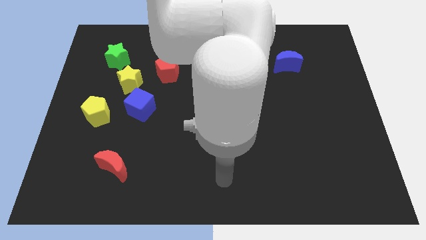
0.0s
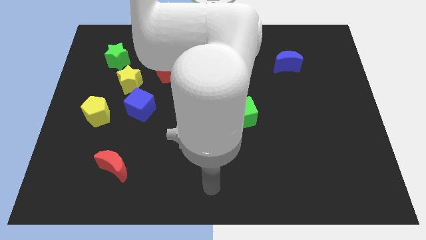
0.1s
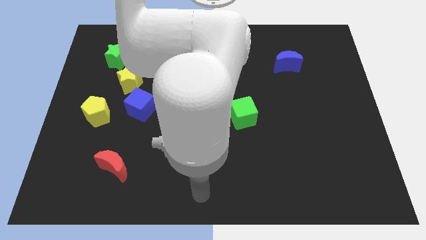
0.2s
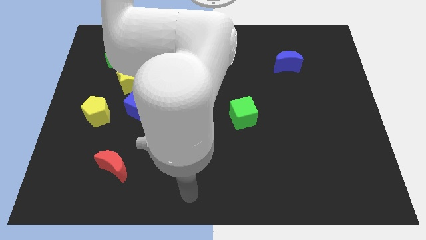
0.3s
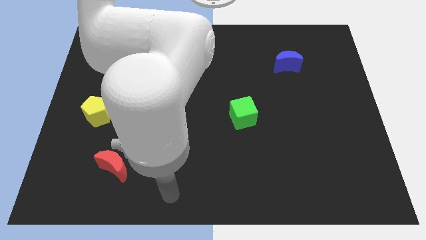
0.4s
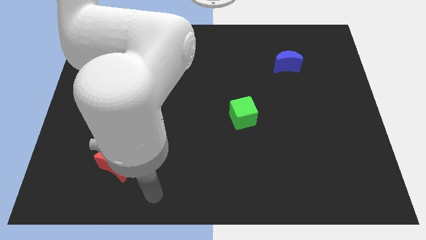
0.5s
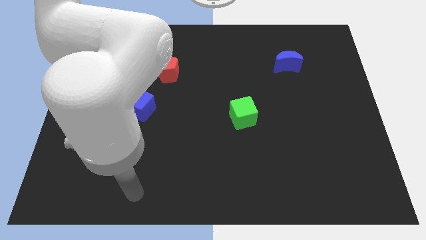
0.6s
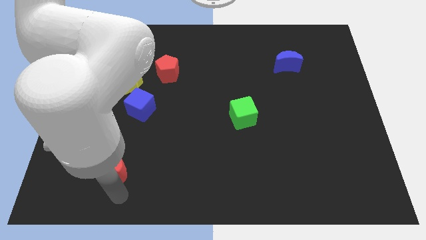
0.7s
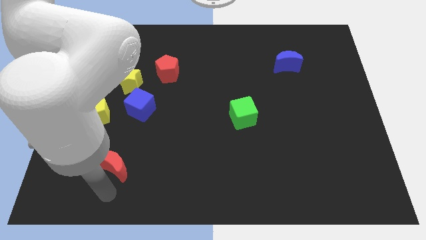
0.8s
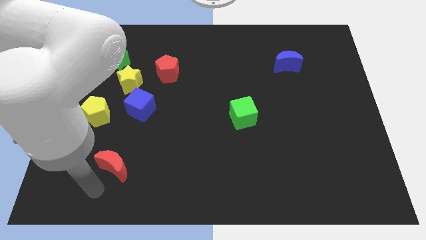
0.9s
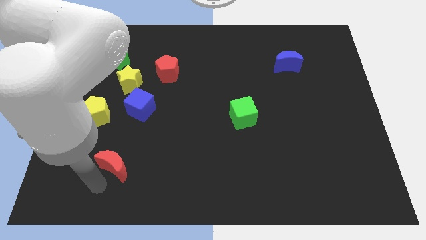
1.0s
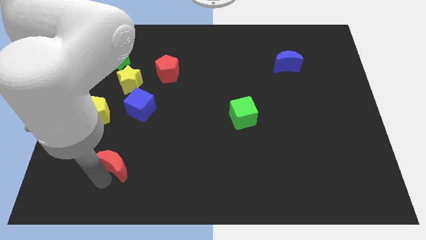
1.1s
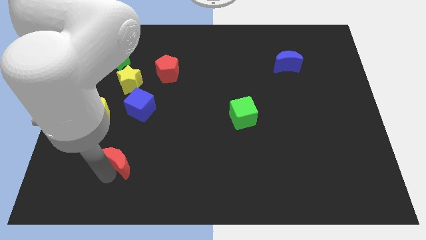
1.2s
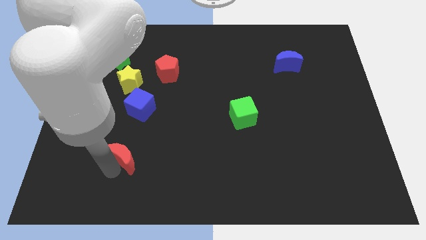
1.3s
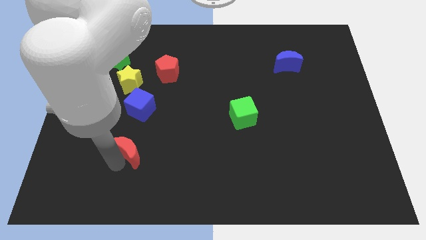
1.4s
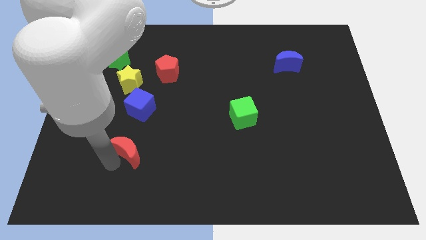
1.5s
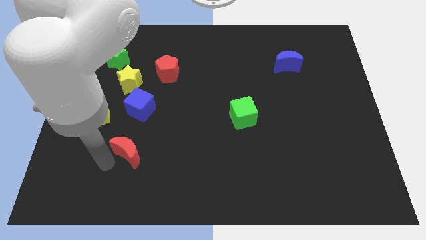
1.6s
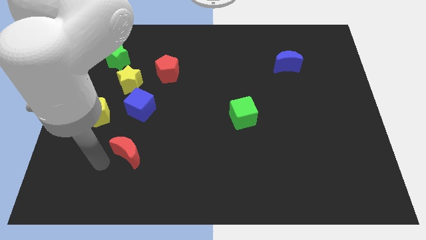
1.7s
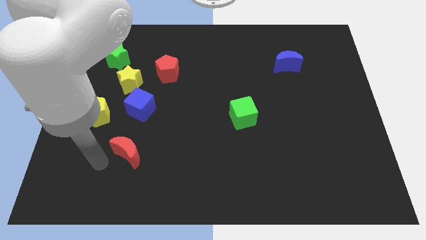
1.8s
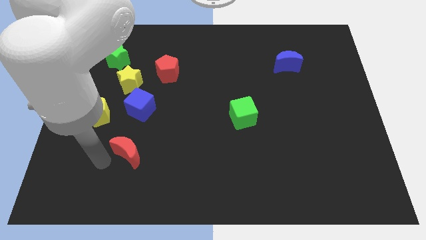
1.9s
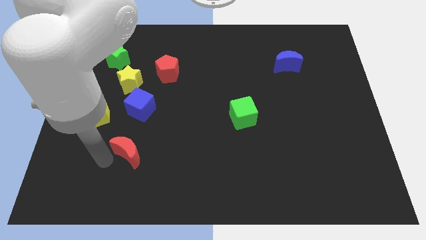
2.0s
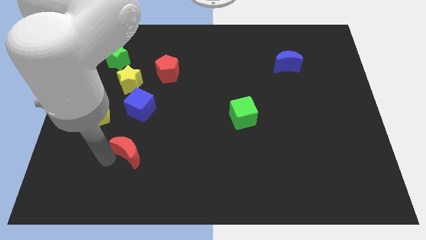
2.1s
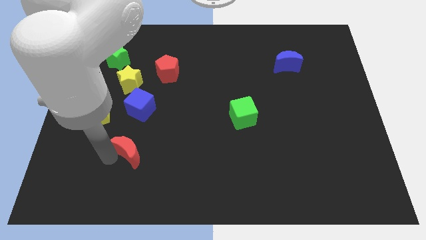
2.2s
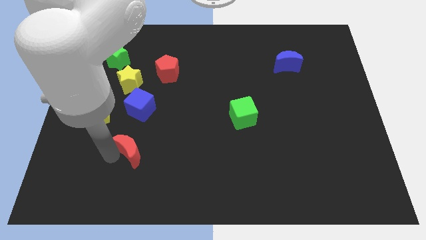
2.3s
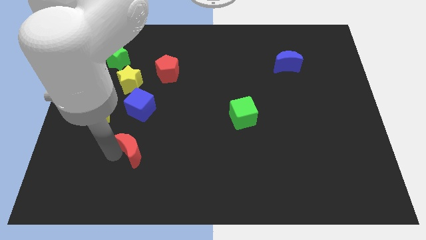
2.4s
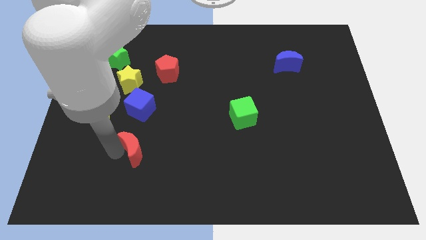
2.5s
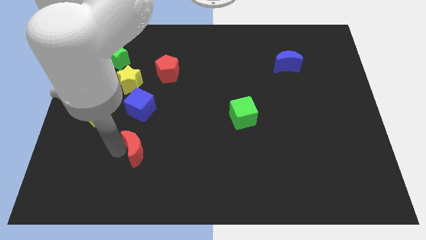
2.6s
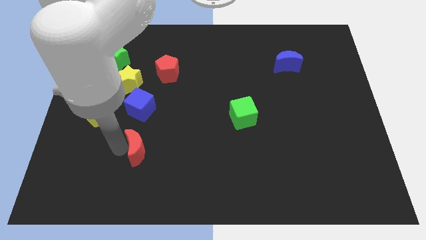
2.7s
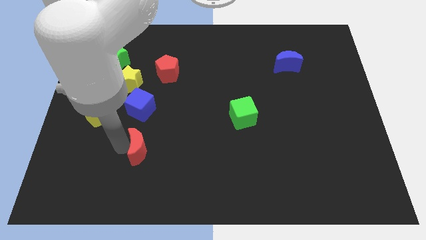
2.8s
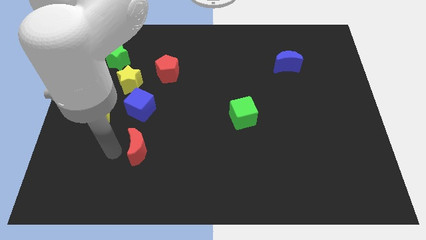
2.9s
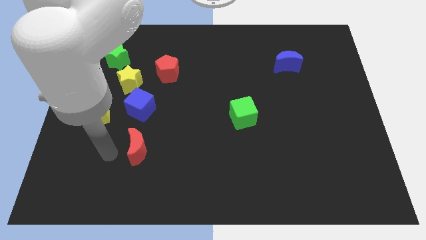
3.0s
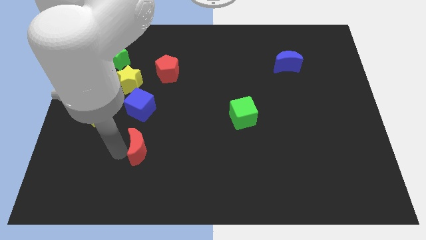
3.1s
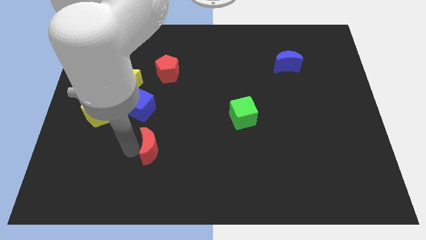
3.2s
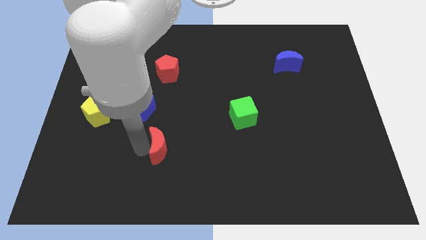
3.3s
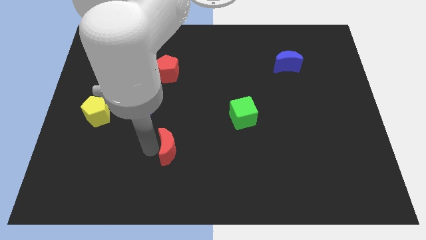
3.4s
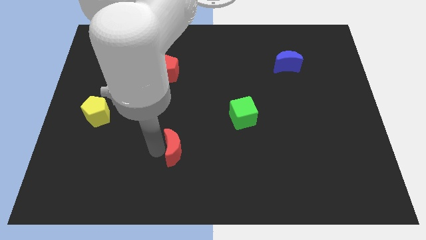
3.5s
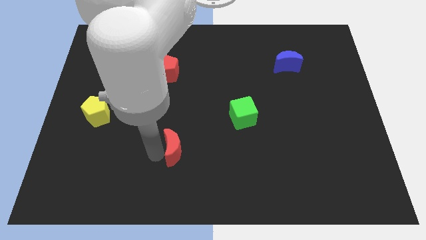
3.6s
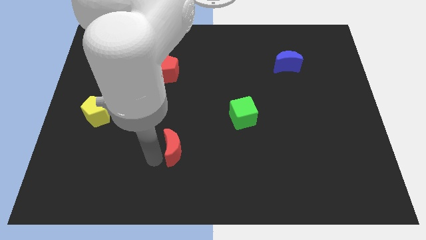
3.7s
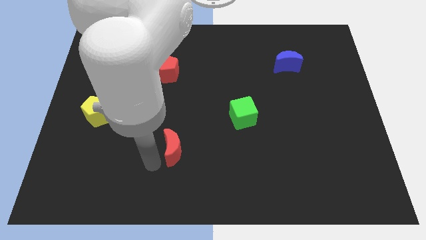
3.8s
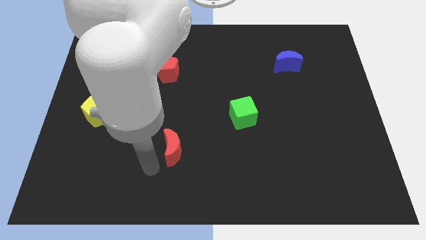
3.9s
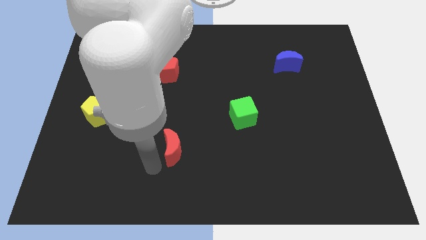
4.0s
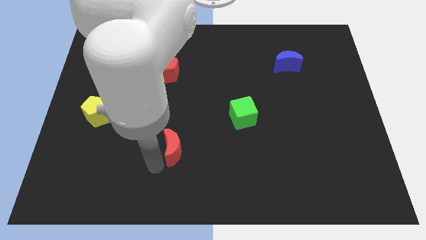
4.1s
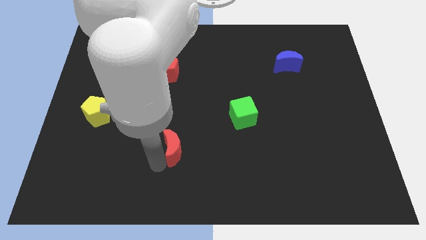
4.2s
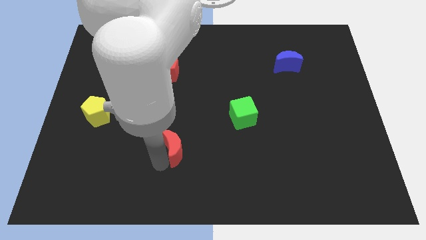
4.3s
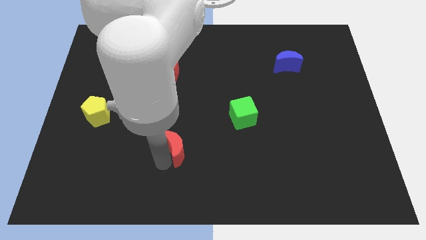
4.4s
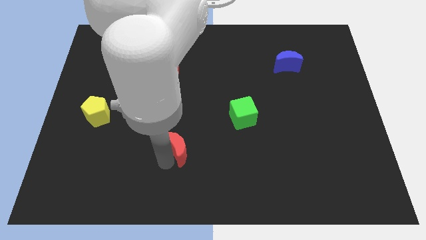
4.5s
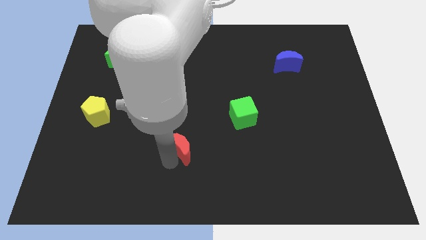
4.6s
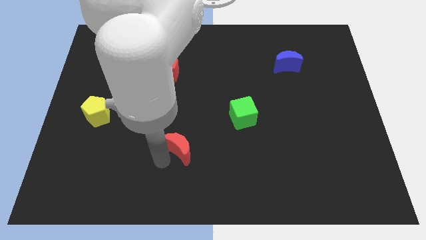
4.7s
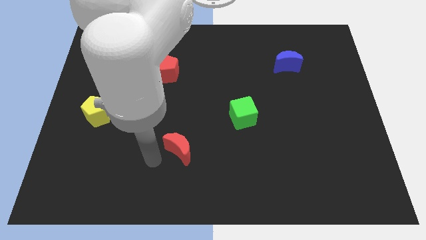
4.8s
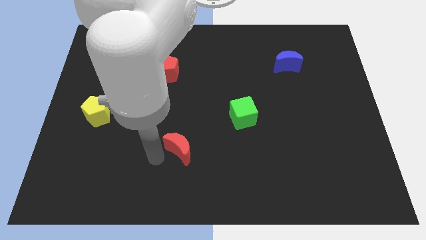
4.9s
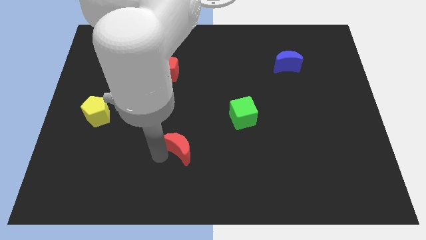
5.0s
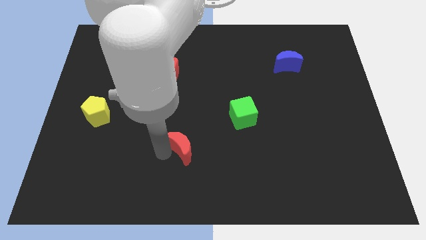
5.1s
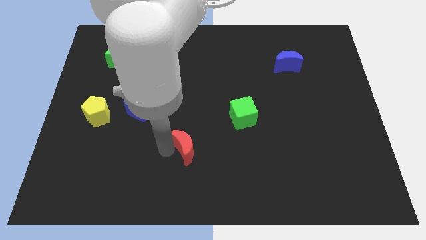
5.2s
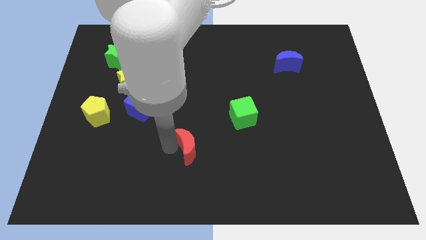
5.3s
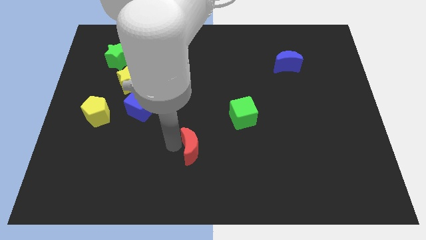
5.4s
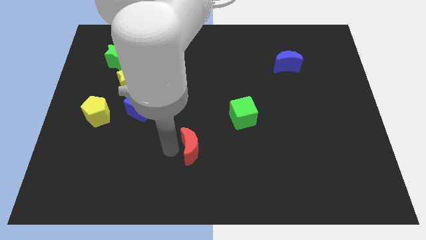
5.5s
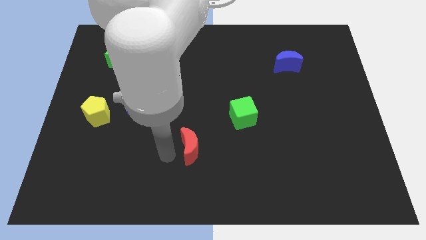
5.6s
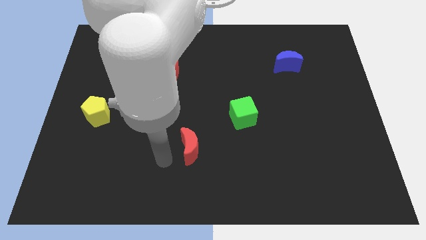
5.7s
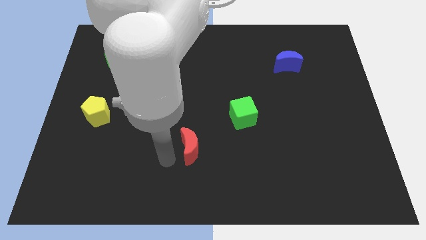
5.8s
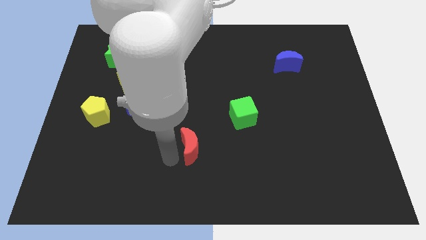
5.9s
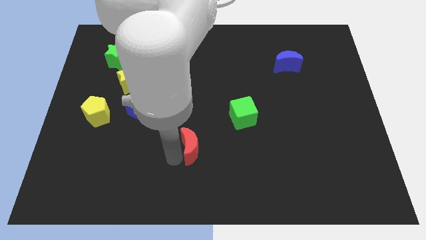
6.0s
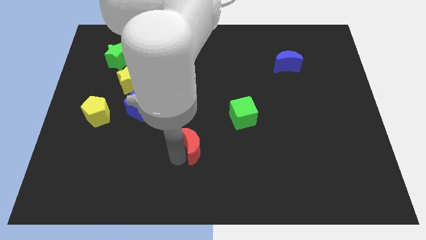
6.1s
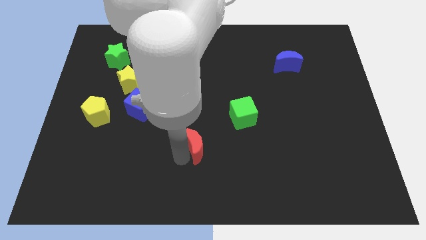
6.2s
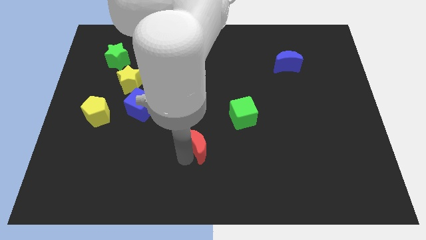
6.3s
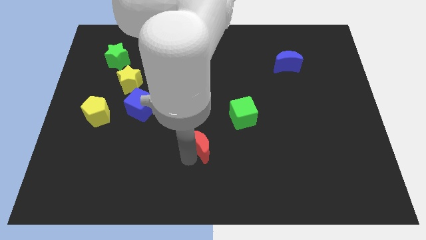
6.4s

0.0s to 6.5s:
move the red moon to the bottom left side of the green cube

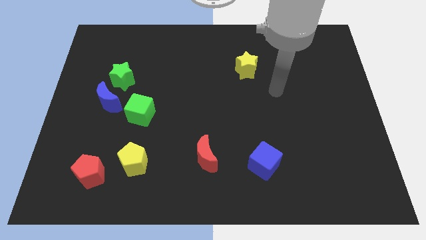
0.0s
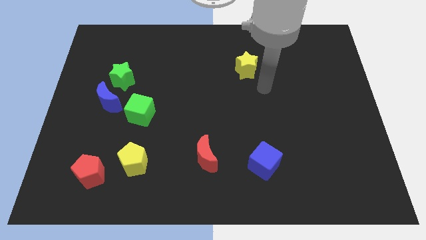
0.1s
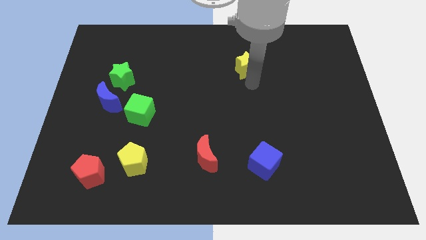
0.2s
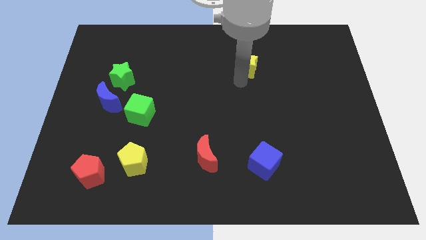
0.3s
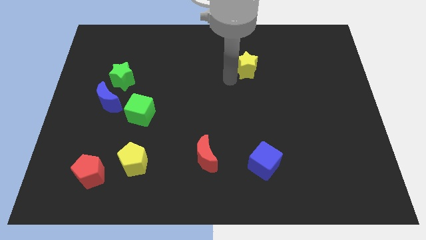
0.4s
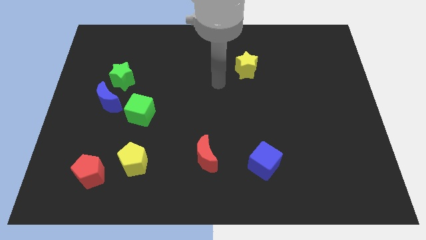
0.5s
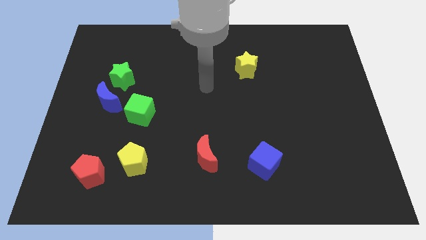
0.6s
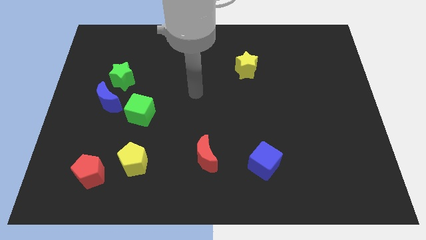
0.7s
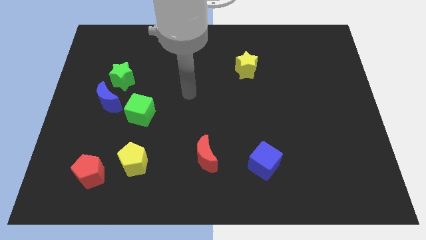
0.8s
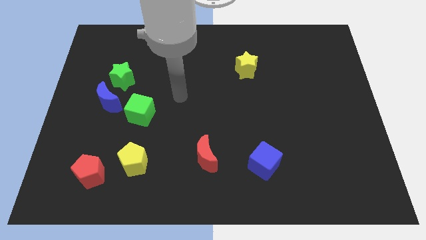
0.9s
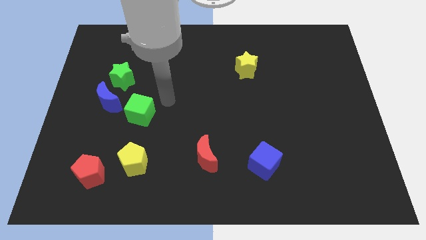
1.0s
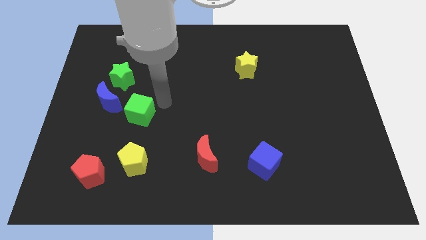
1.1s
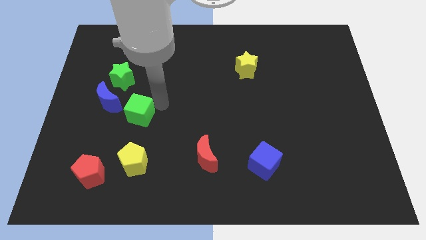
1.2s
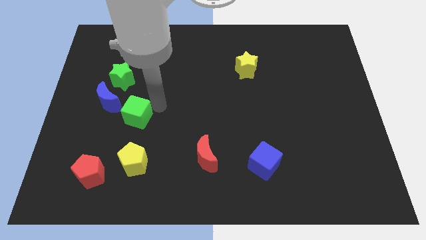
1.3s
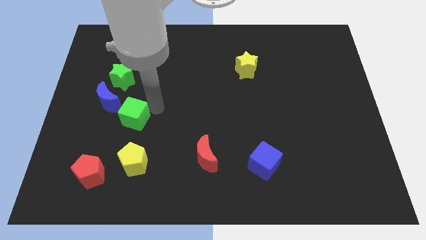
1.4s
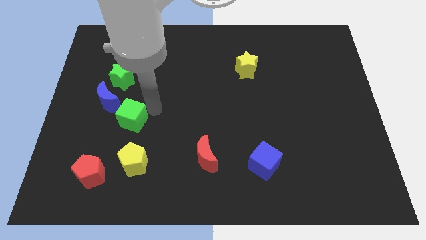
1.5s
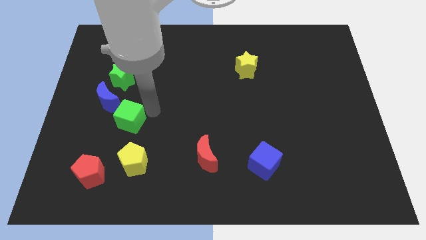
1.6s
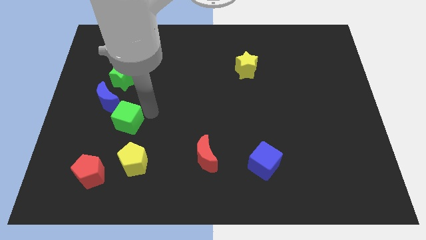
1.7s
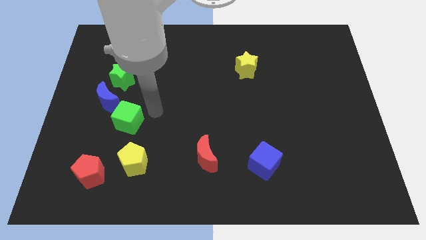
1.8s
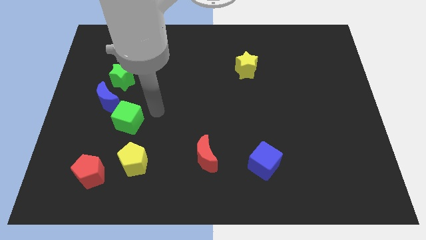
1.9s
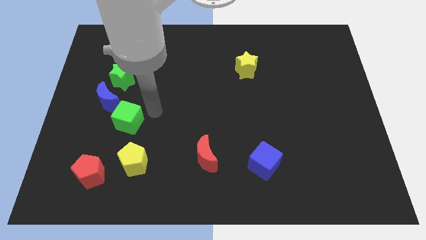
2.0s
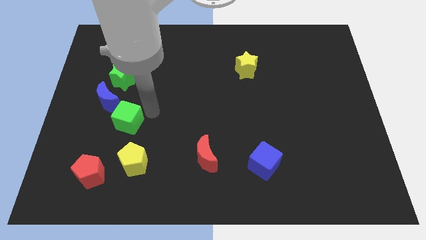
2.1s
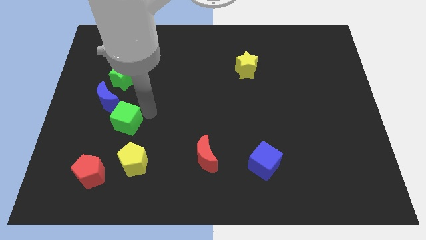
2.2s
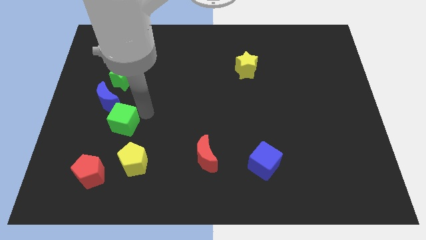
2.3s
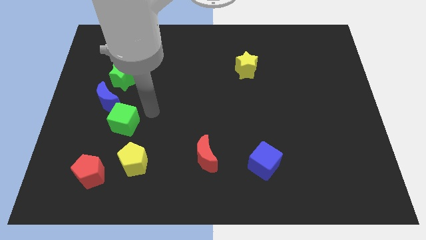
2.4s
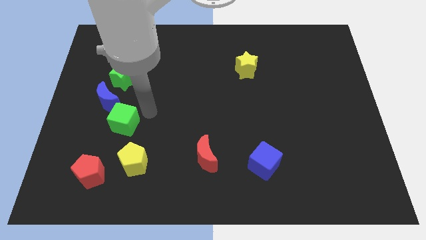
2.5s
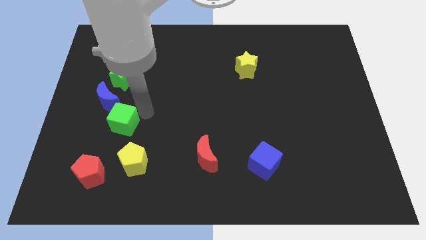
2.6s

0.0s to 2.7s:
push the green cube to the top of the red pentagon
